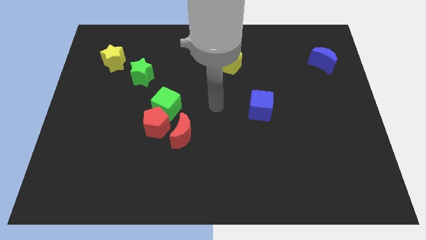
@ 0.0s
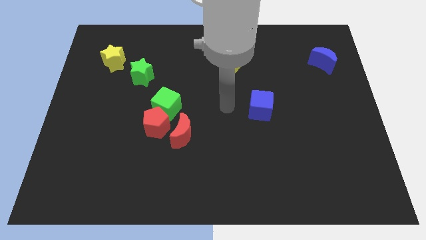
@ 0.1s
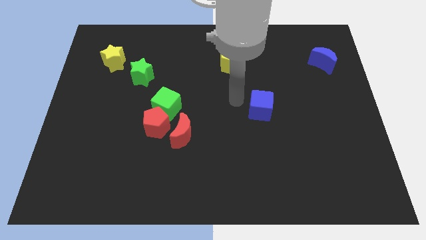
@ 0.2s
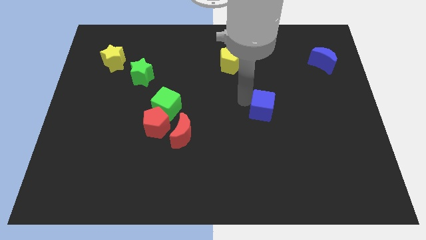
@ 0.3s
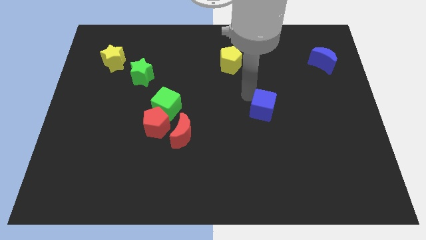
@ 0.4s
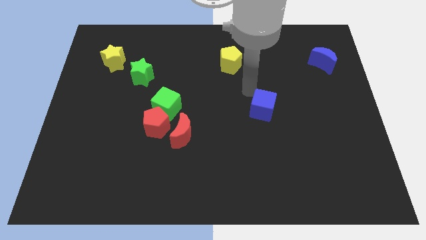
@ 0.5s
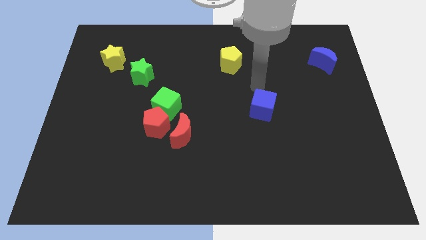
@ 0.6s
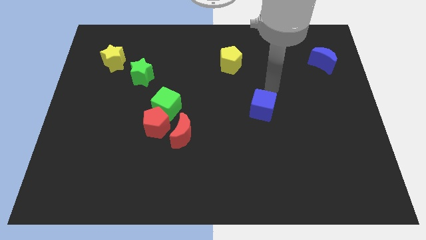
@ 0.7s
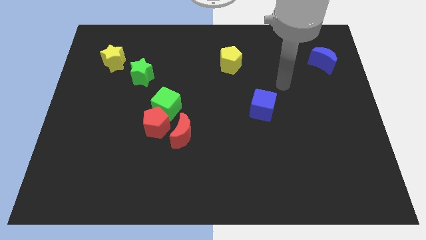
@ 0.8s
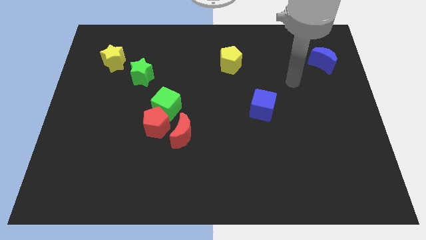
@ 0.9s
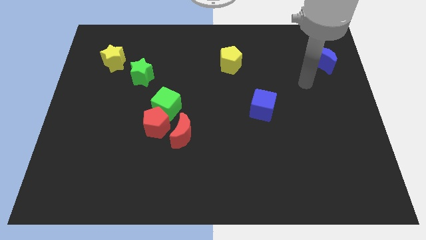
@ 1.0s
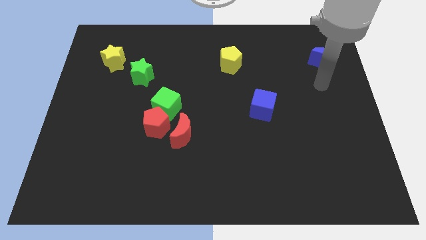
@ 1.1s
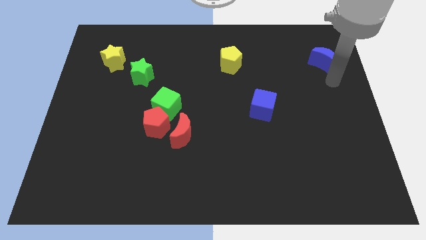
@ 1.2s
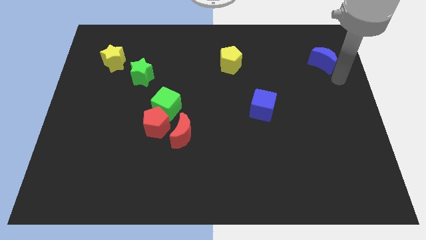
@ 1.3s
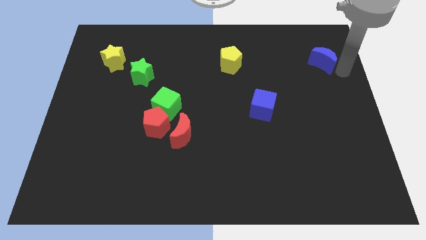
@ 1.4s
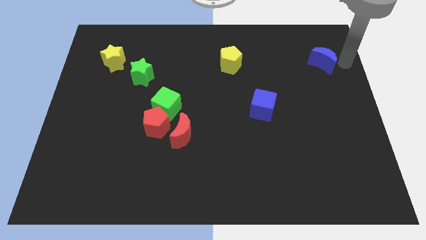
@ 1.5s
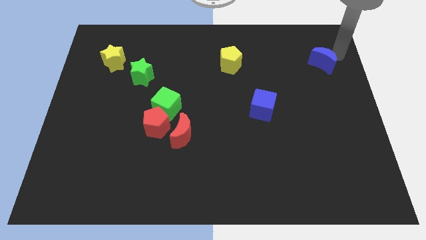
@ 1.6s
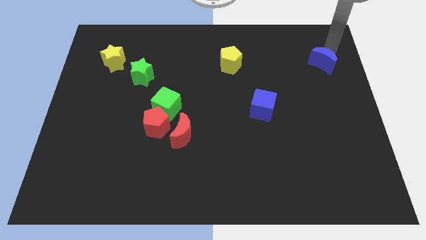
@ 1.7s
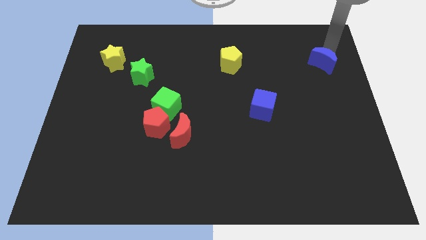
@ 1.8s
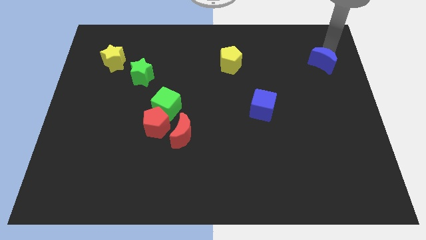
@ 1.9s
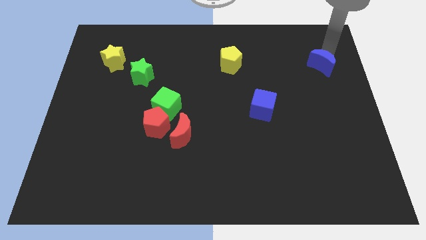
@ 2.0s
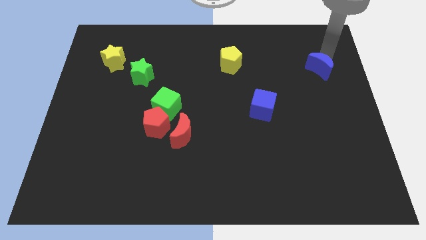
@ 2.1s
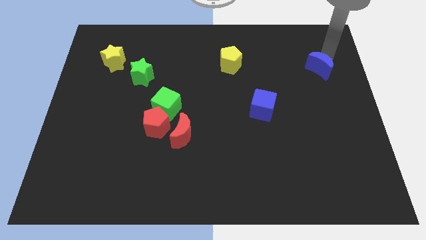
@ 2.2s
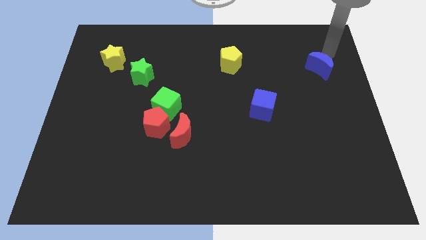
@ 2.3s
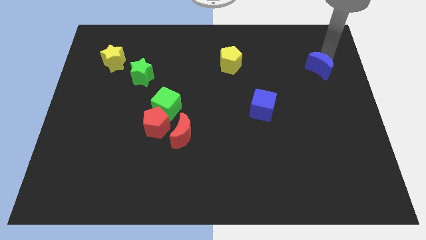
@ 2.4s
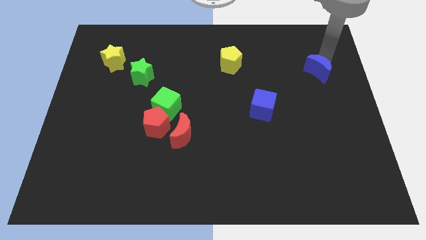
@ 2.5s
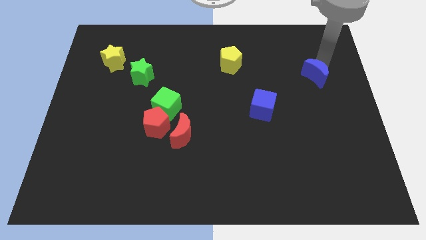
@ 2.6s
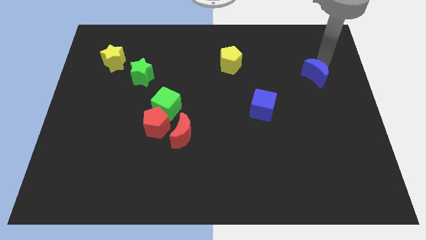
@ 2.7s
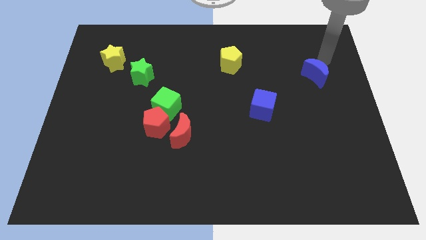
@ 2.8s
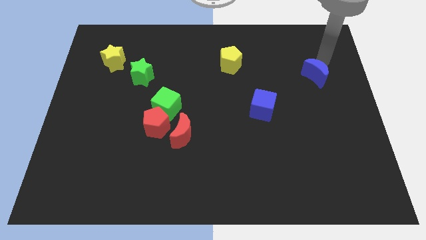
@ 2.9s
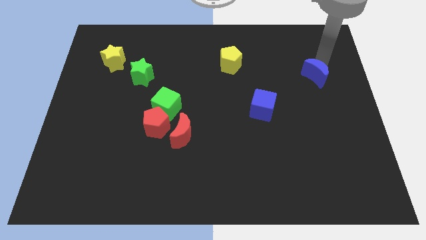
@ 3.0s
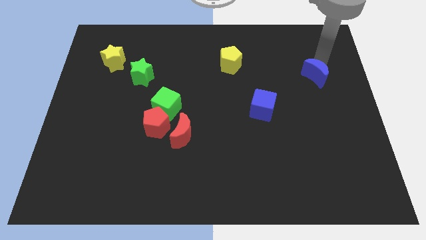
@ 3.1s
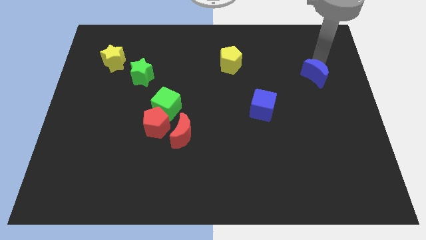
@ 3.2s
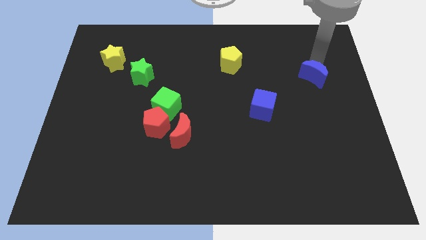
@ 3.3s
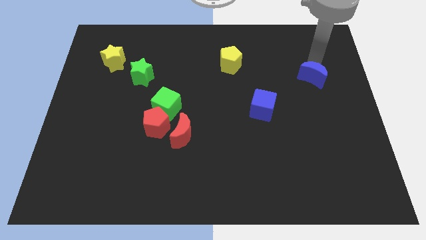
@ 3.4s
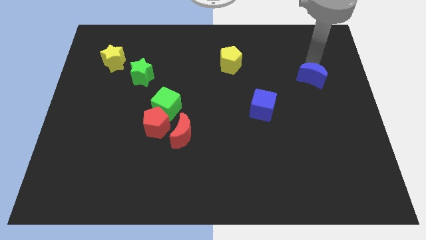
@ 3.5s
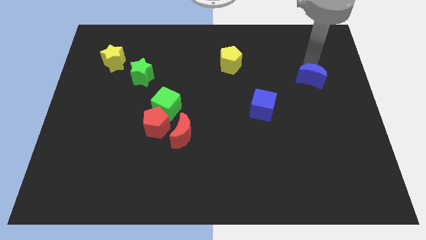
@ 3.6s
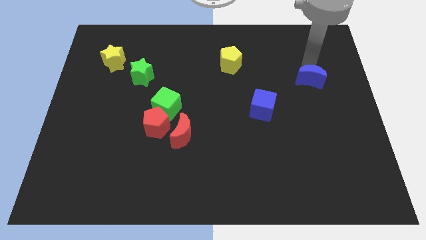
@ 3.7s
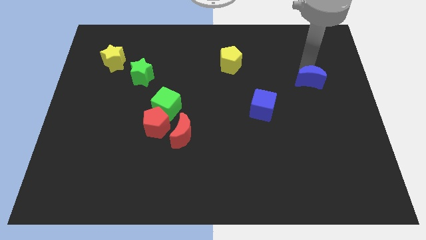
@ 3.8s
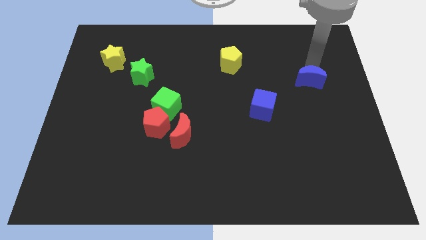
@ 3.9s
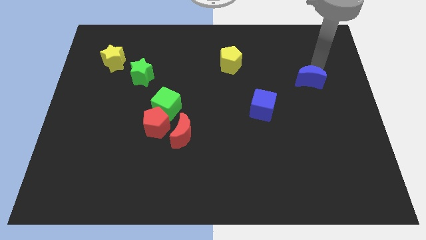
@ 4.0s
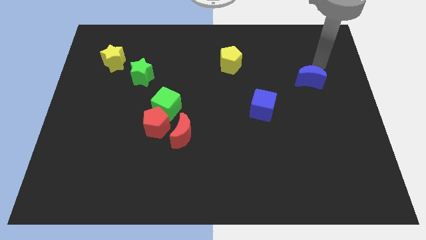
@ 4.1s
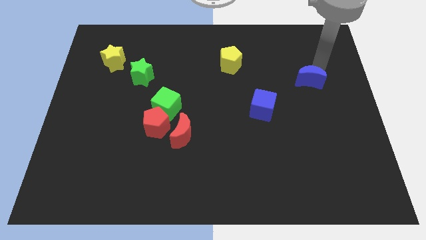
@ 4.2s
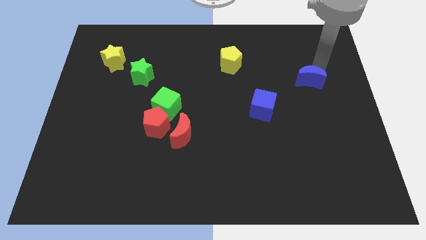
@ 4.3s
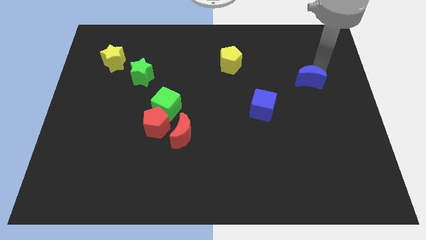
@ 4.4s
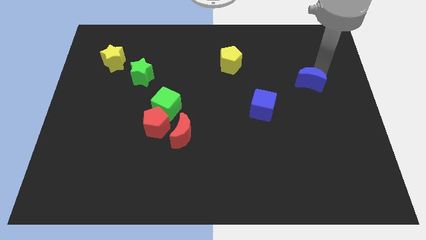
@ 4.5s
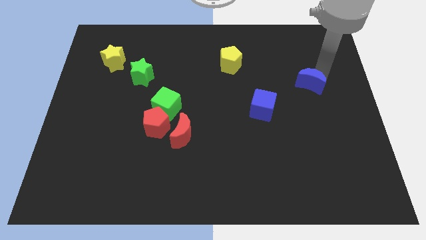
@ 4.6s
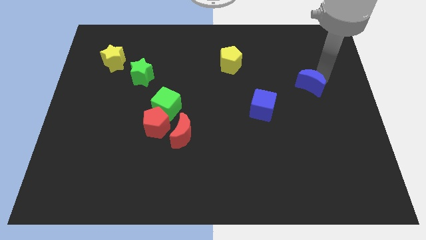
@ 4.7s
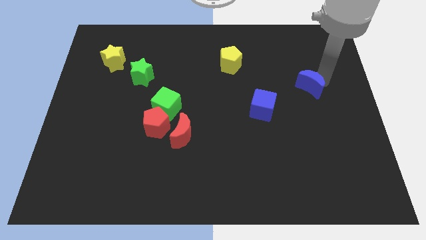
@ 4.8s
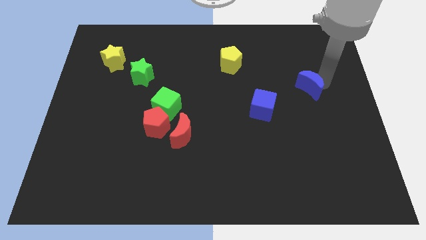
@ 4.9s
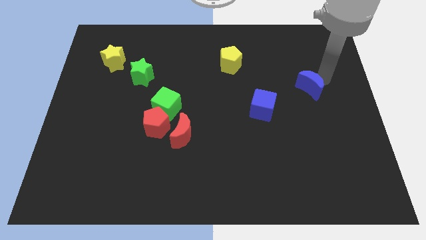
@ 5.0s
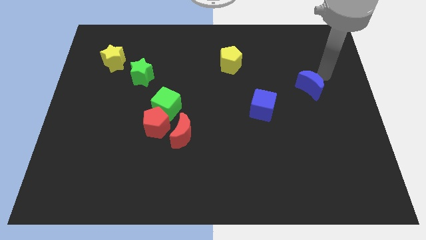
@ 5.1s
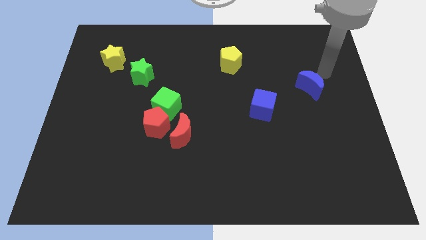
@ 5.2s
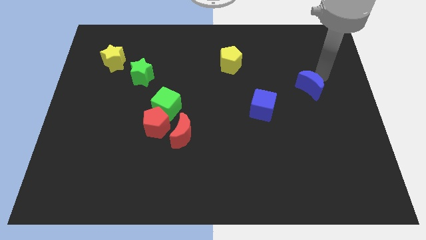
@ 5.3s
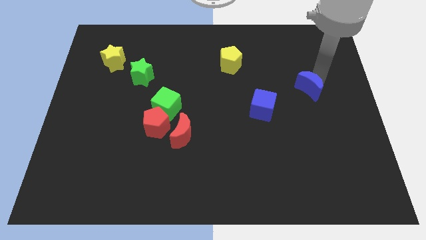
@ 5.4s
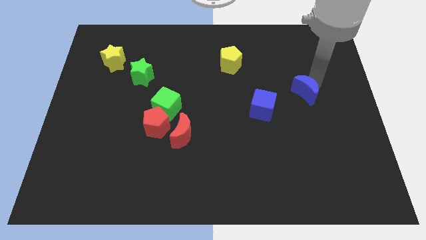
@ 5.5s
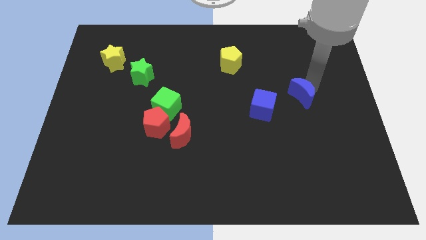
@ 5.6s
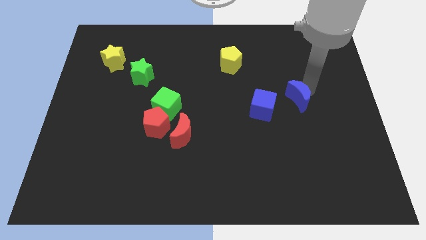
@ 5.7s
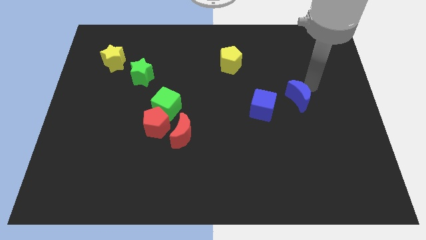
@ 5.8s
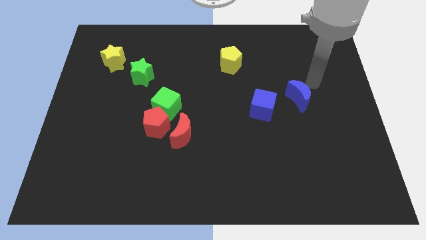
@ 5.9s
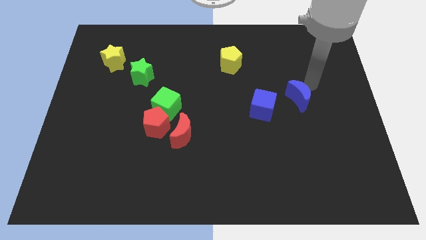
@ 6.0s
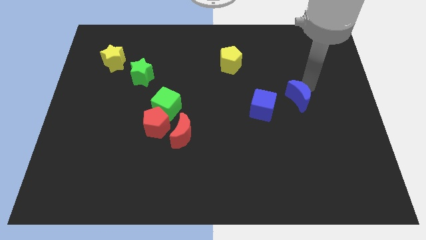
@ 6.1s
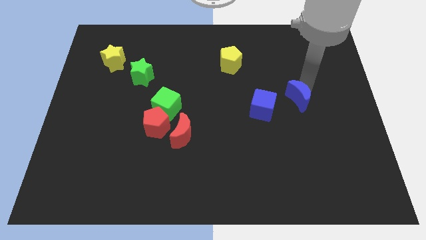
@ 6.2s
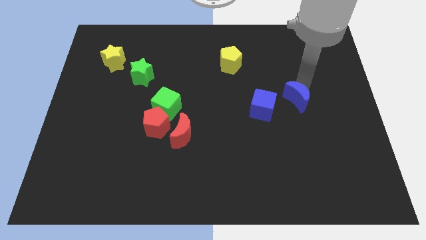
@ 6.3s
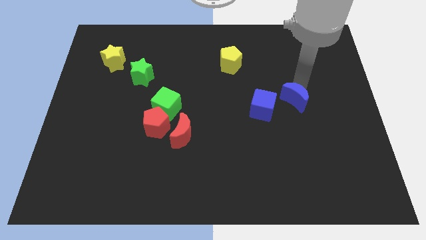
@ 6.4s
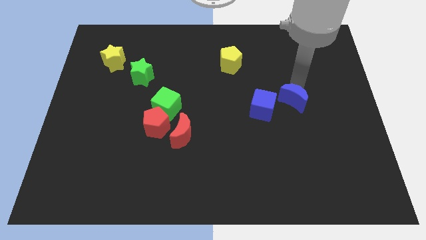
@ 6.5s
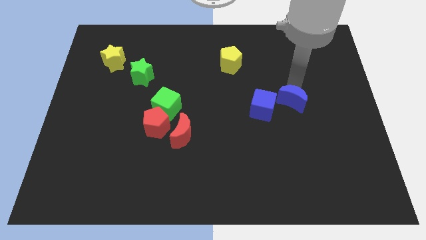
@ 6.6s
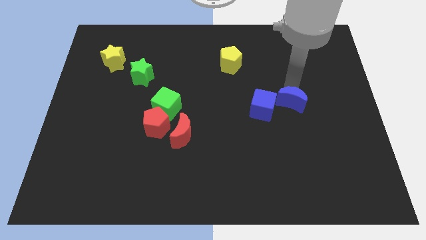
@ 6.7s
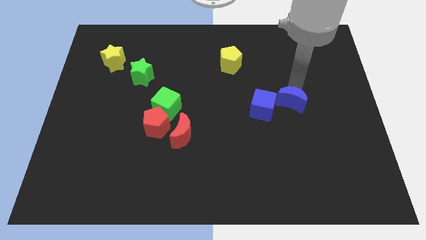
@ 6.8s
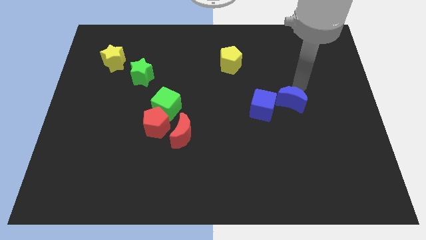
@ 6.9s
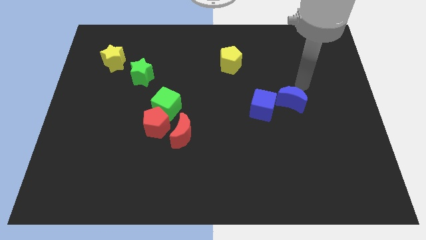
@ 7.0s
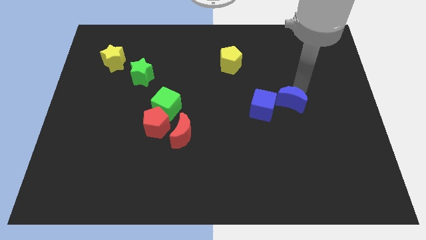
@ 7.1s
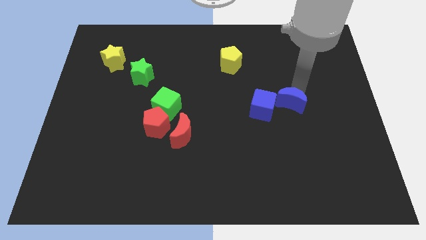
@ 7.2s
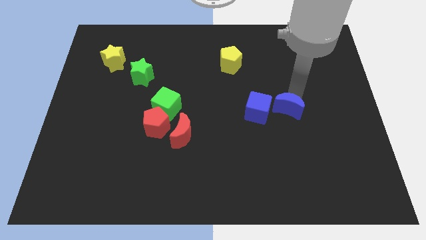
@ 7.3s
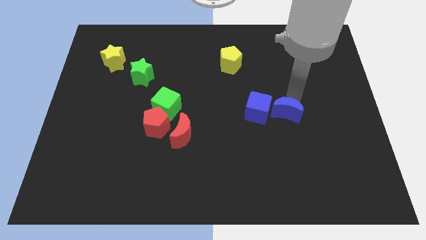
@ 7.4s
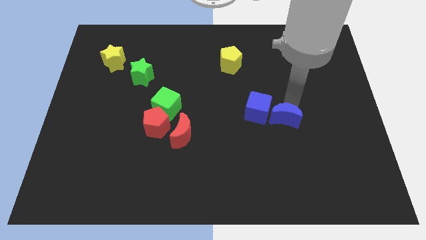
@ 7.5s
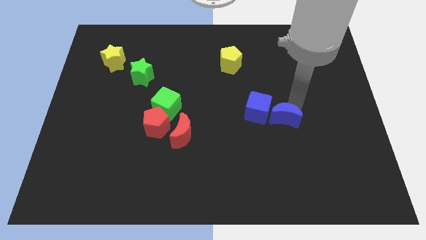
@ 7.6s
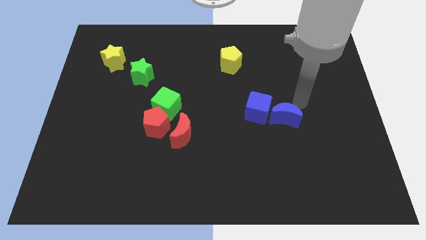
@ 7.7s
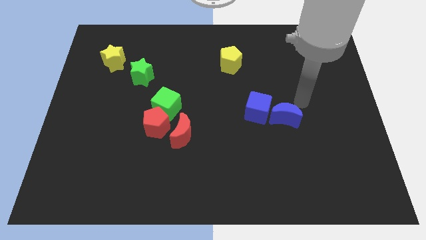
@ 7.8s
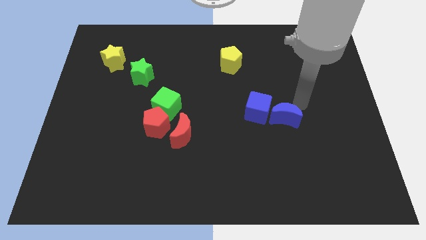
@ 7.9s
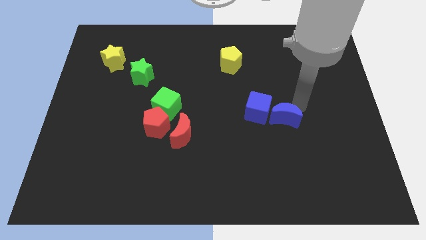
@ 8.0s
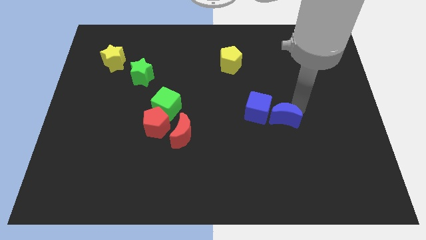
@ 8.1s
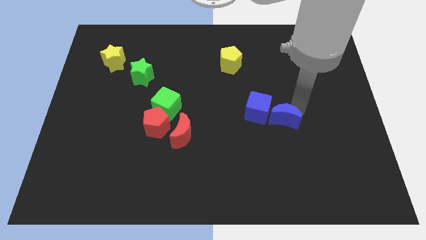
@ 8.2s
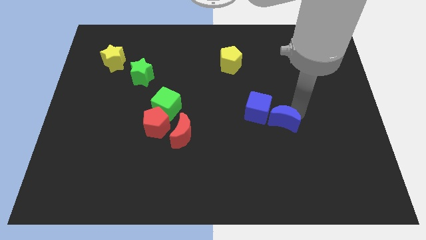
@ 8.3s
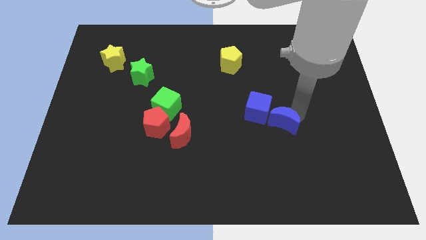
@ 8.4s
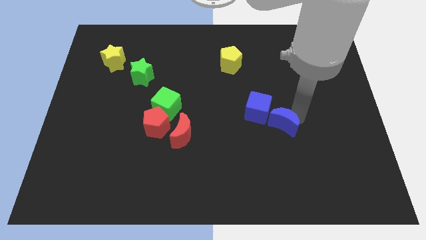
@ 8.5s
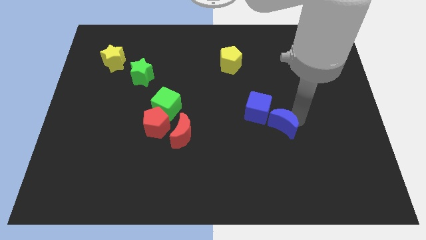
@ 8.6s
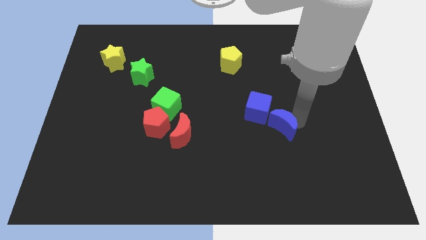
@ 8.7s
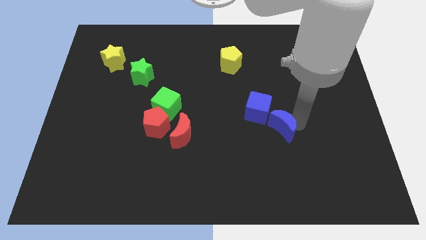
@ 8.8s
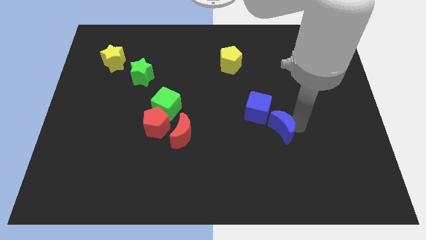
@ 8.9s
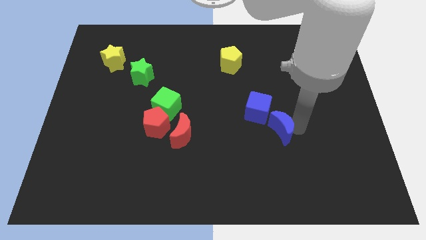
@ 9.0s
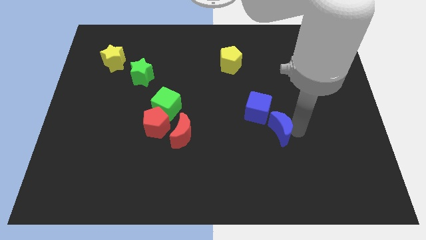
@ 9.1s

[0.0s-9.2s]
put the blue moon to the bottom side of the blue cube
